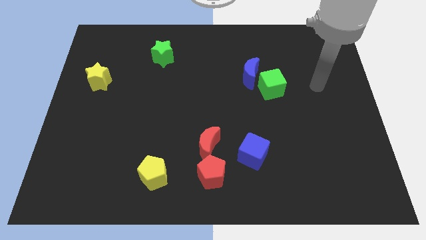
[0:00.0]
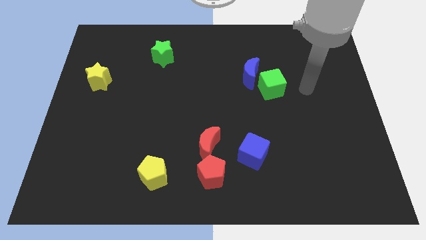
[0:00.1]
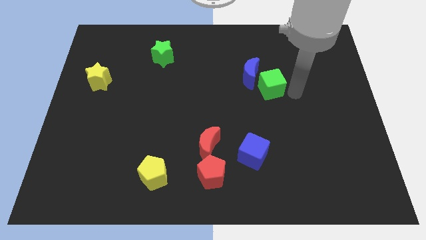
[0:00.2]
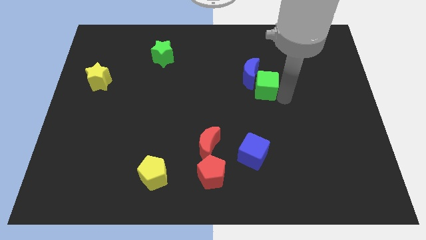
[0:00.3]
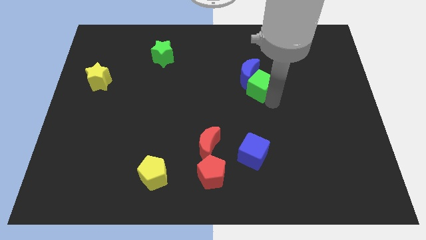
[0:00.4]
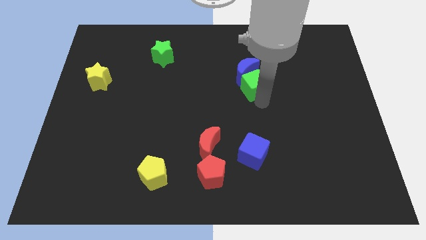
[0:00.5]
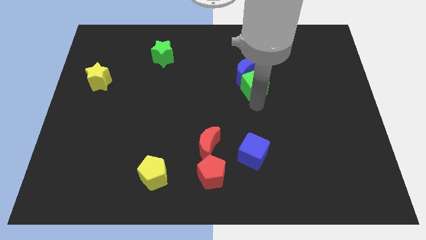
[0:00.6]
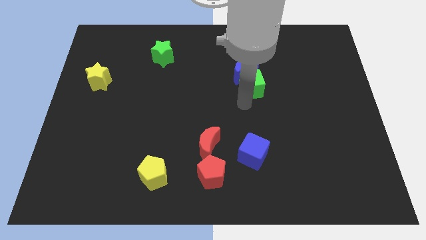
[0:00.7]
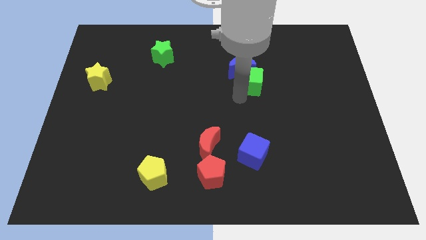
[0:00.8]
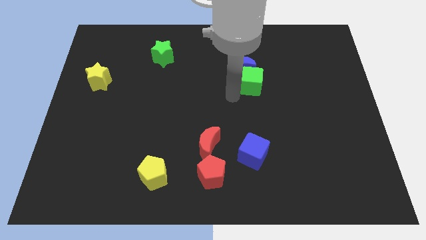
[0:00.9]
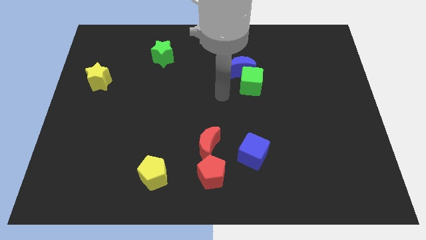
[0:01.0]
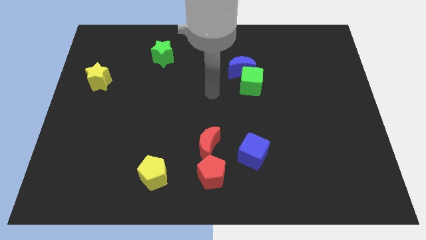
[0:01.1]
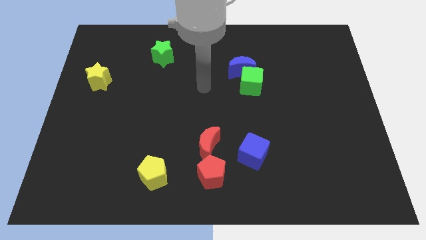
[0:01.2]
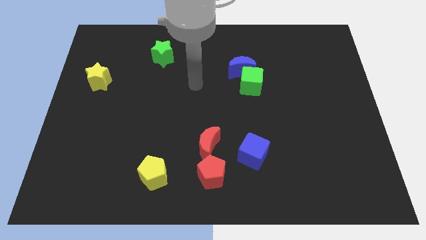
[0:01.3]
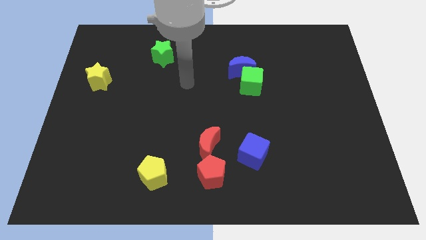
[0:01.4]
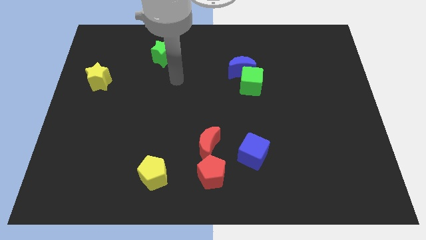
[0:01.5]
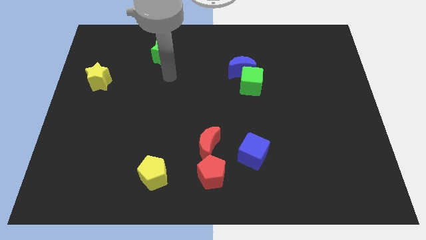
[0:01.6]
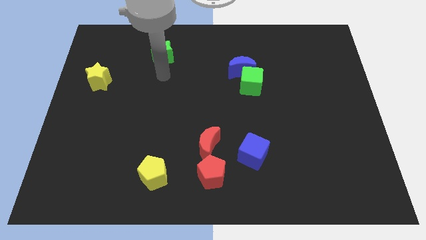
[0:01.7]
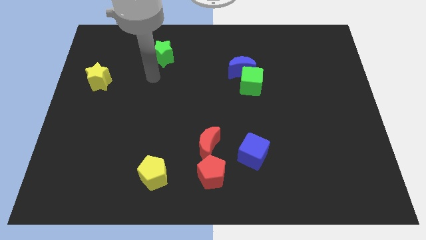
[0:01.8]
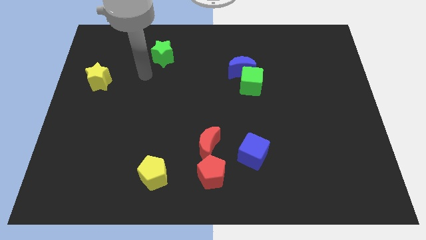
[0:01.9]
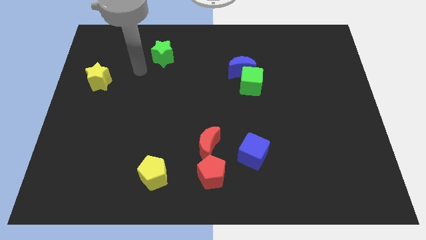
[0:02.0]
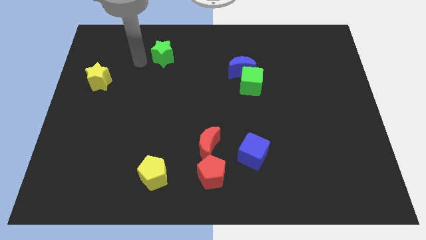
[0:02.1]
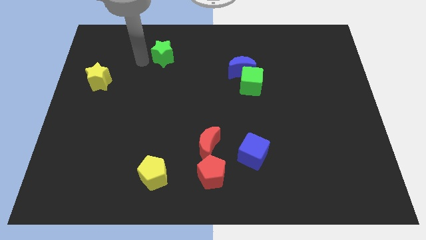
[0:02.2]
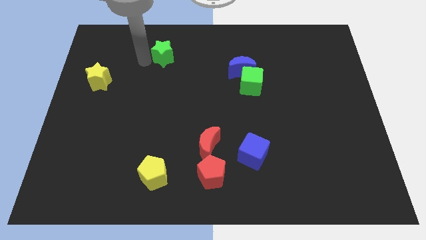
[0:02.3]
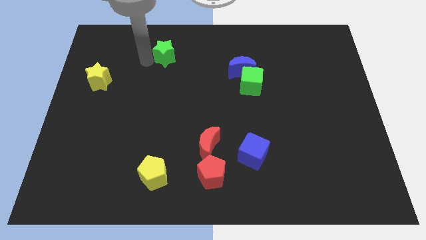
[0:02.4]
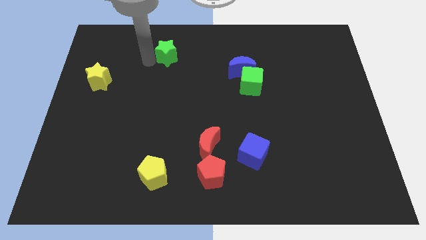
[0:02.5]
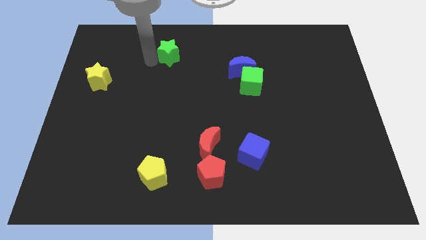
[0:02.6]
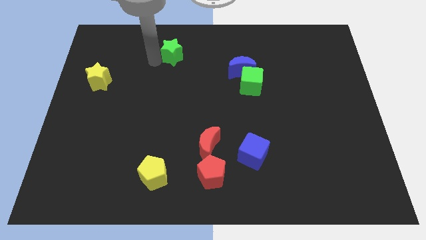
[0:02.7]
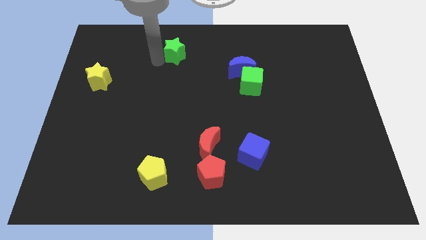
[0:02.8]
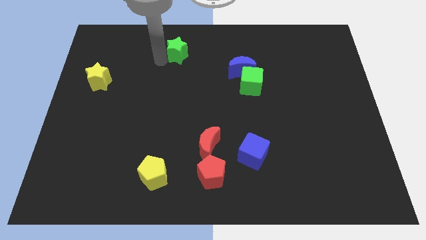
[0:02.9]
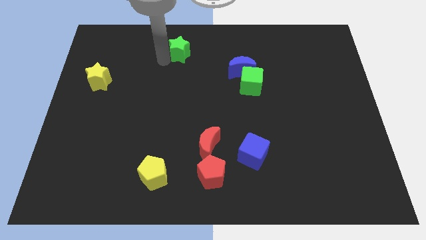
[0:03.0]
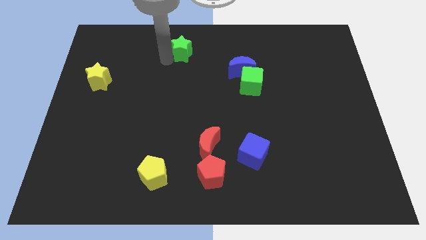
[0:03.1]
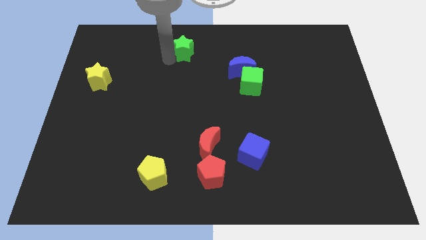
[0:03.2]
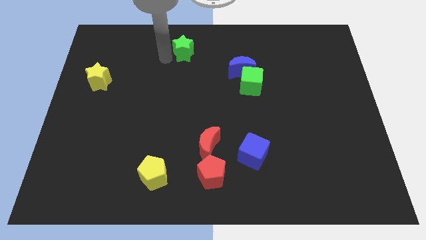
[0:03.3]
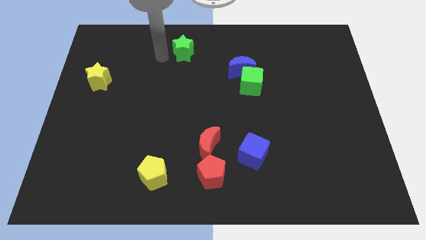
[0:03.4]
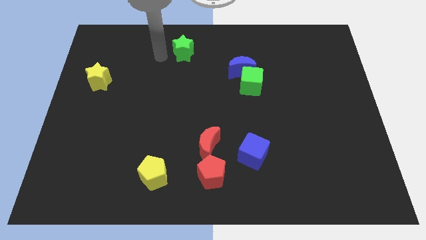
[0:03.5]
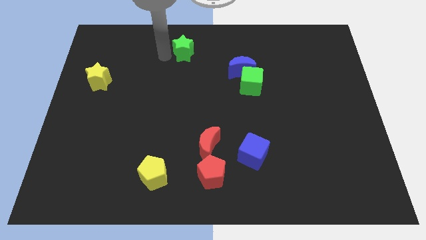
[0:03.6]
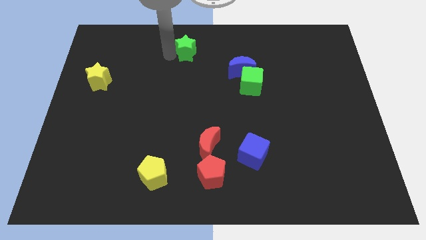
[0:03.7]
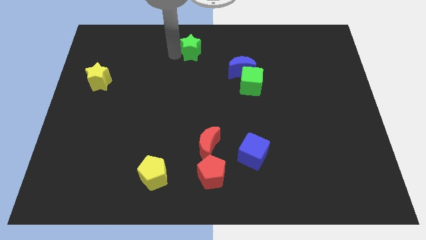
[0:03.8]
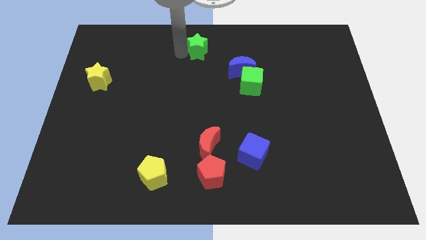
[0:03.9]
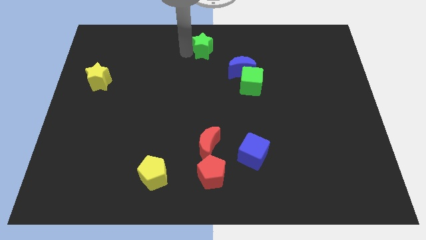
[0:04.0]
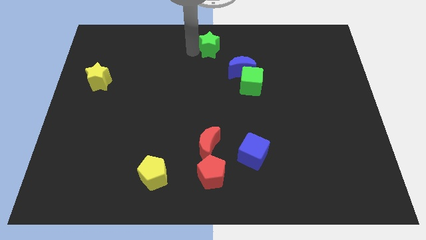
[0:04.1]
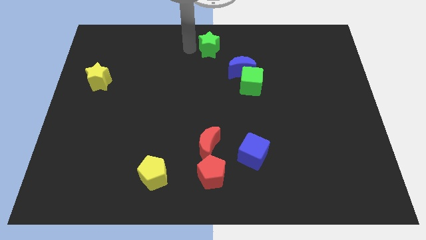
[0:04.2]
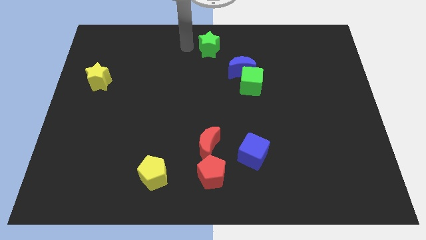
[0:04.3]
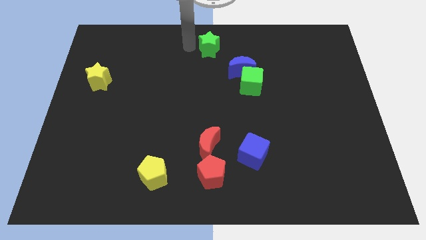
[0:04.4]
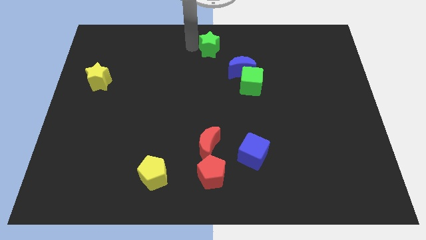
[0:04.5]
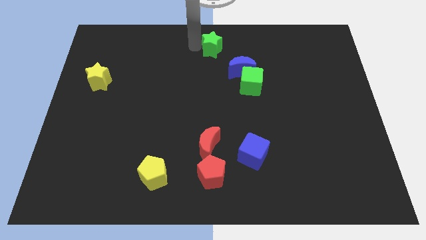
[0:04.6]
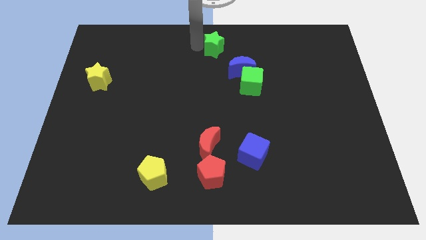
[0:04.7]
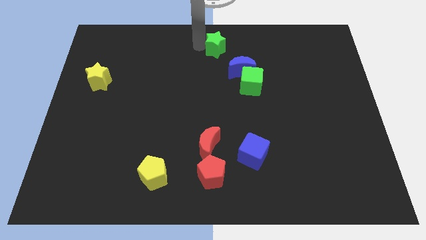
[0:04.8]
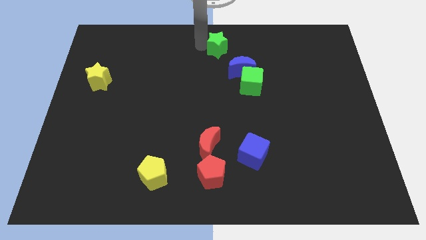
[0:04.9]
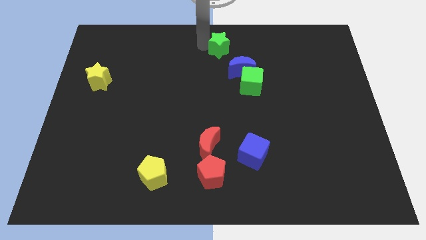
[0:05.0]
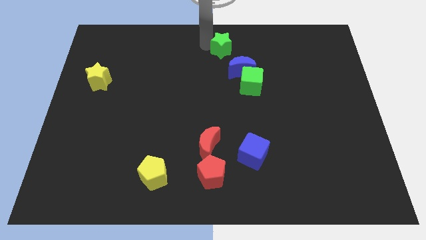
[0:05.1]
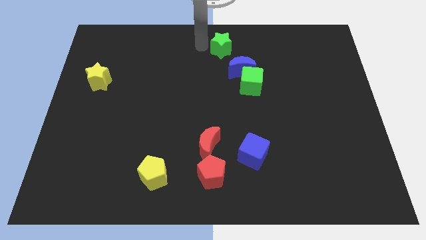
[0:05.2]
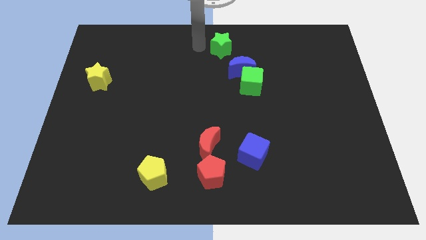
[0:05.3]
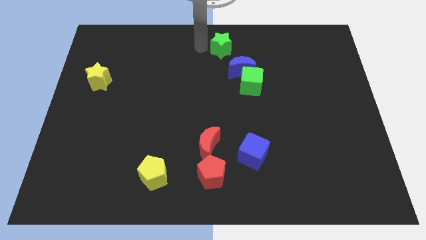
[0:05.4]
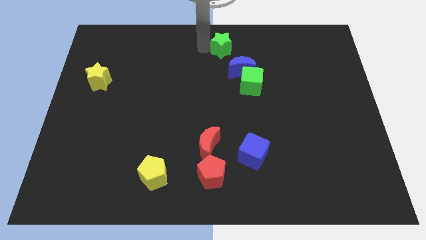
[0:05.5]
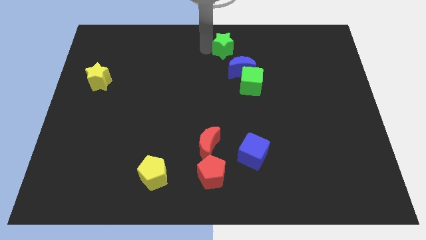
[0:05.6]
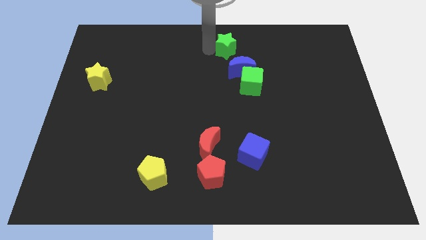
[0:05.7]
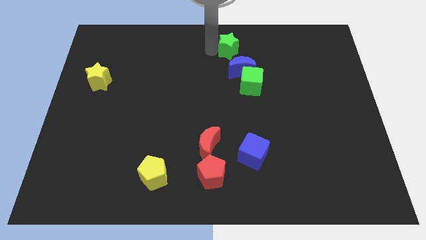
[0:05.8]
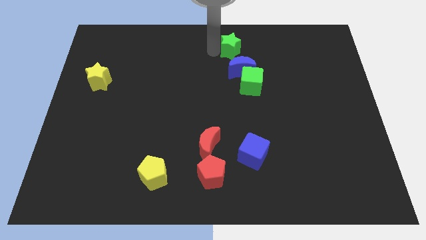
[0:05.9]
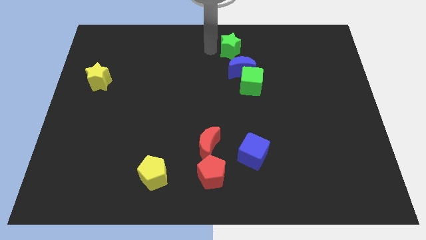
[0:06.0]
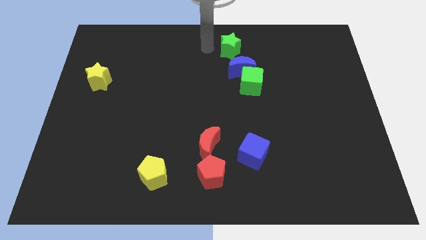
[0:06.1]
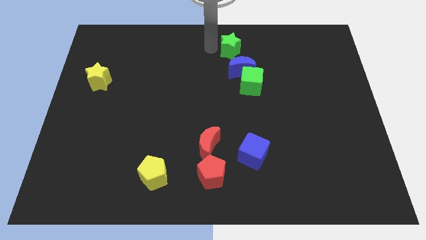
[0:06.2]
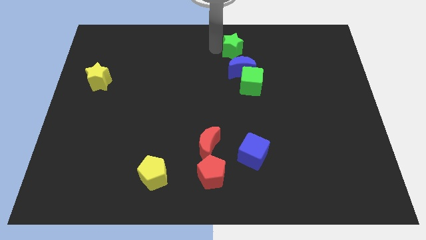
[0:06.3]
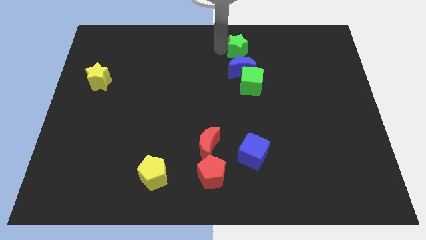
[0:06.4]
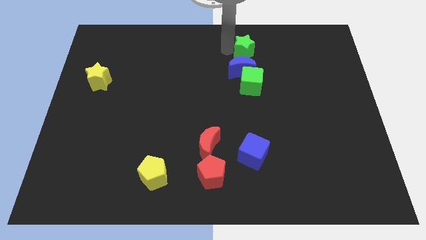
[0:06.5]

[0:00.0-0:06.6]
push the green star to the right

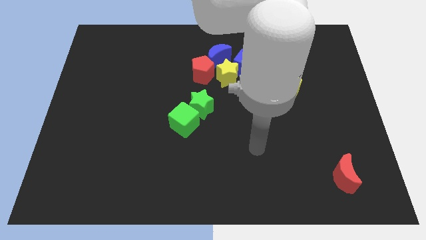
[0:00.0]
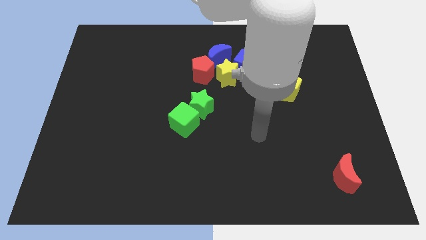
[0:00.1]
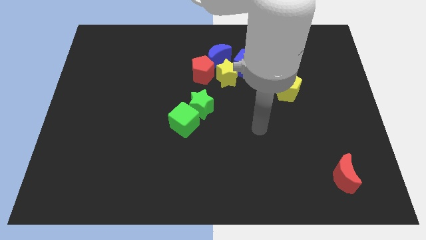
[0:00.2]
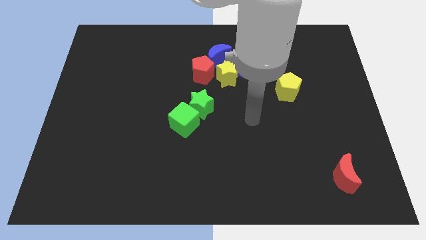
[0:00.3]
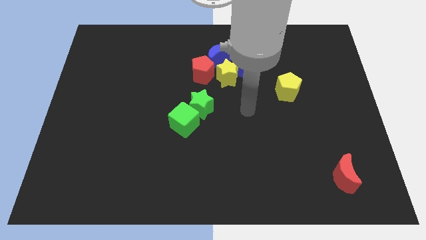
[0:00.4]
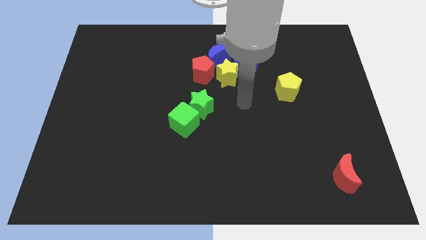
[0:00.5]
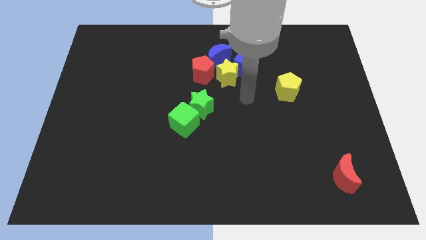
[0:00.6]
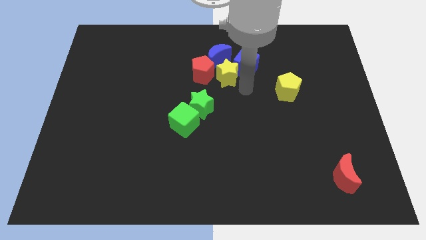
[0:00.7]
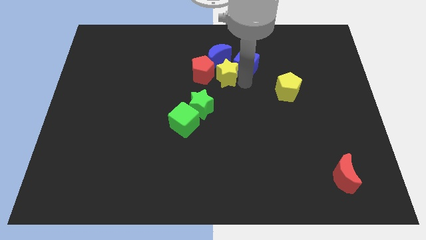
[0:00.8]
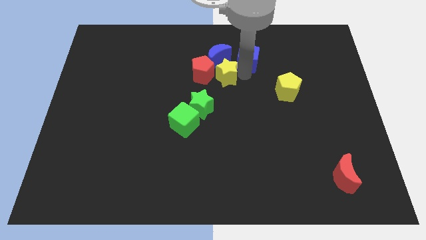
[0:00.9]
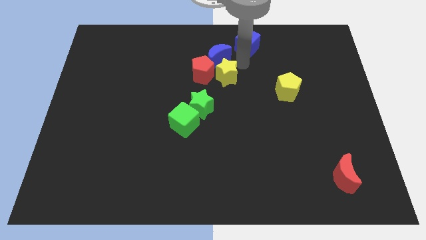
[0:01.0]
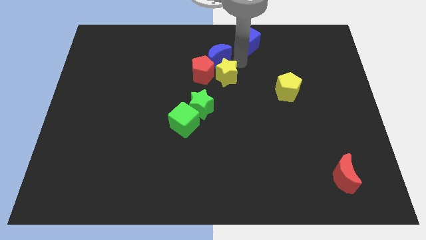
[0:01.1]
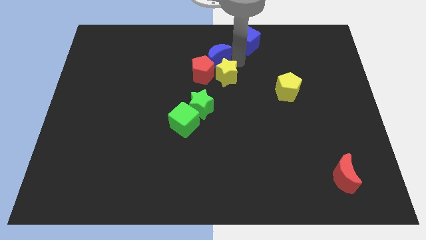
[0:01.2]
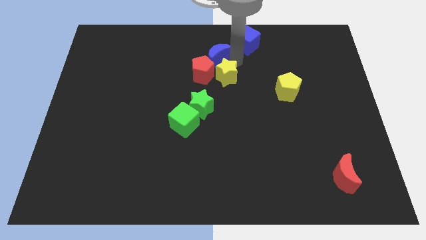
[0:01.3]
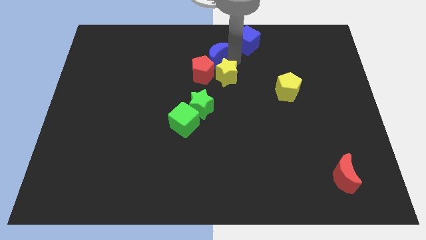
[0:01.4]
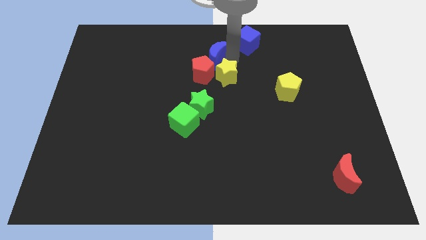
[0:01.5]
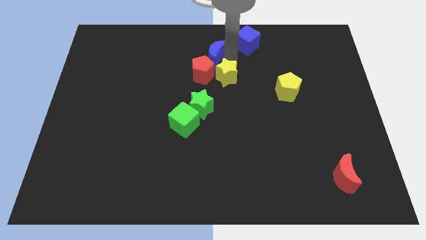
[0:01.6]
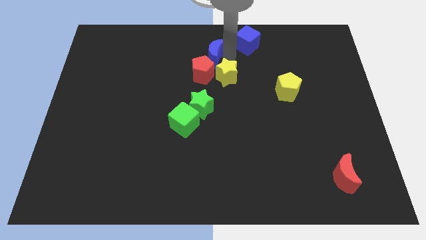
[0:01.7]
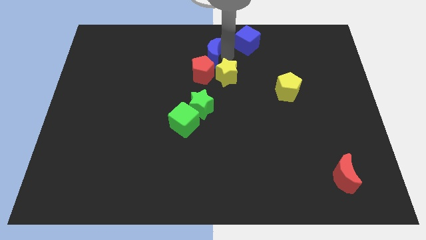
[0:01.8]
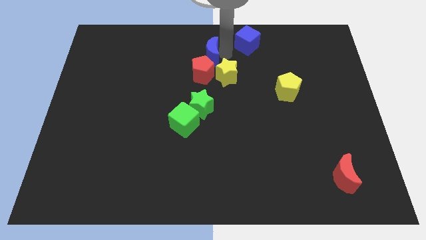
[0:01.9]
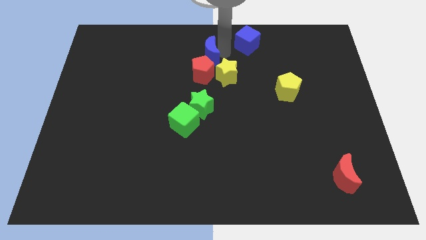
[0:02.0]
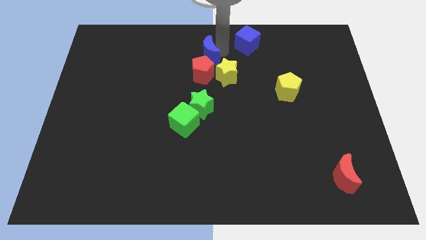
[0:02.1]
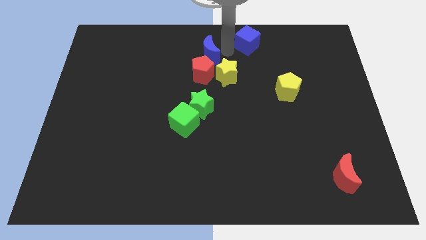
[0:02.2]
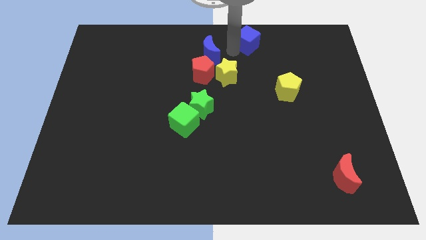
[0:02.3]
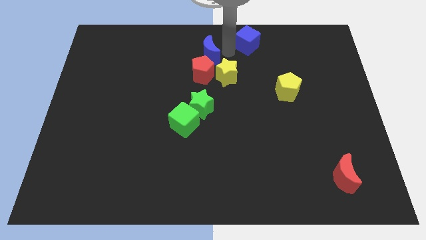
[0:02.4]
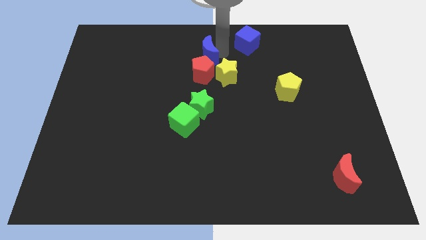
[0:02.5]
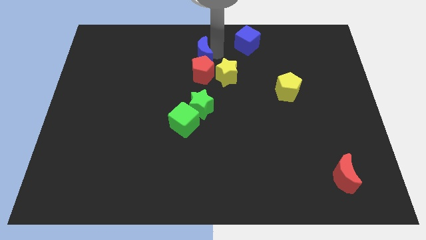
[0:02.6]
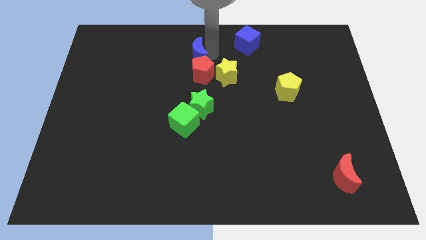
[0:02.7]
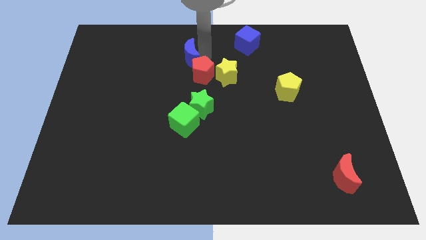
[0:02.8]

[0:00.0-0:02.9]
move the blue moon slightly left
